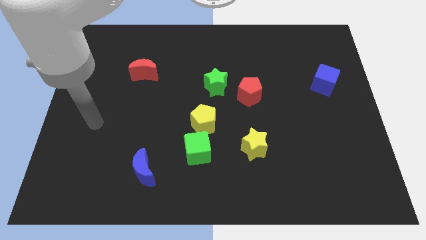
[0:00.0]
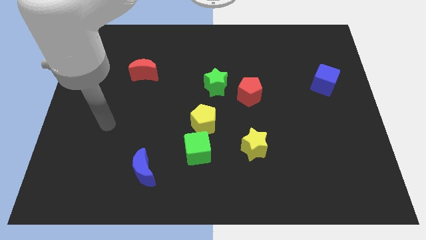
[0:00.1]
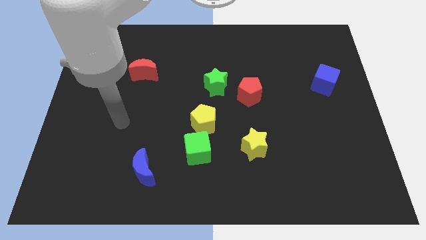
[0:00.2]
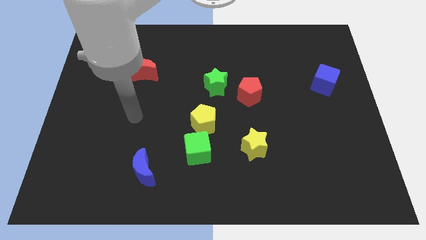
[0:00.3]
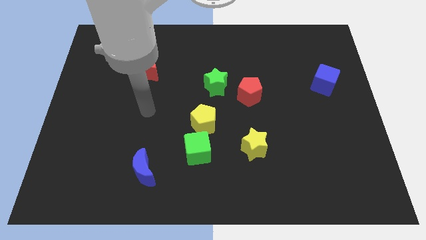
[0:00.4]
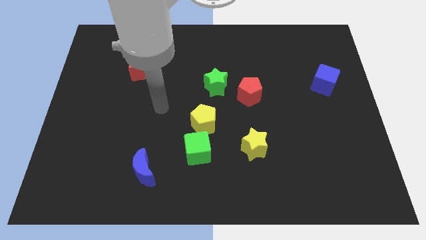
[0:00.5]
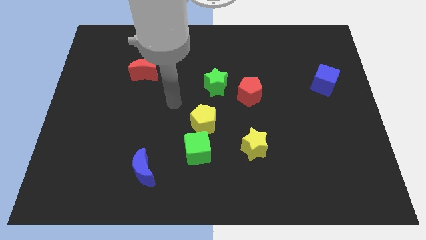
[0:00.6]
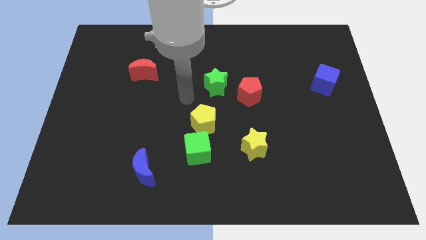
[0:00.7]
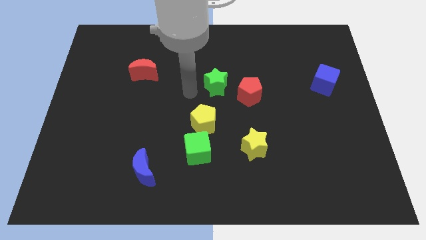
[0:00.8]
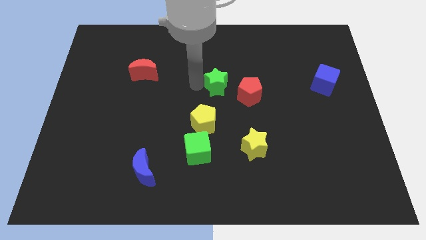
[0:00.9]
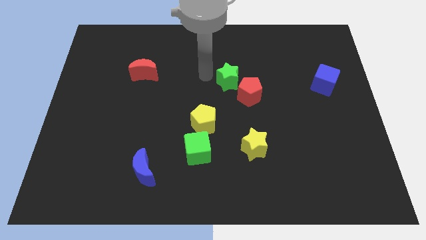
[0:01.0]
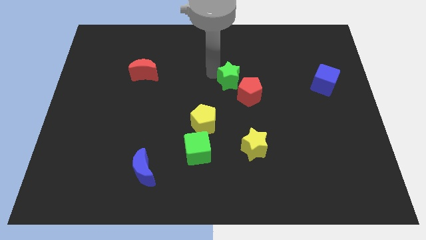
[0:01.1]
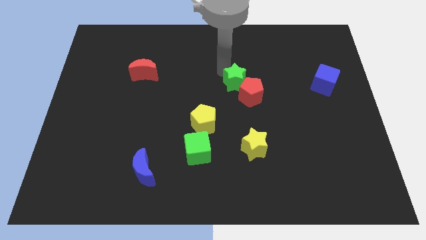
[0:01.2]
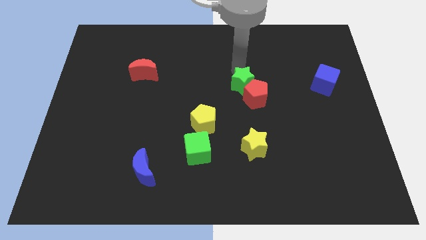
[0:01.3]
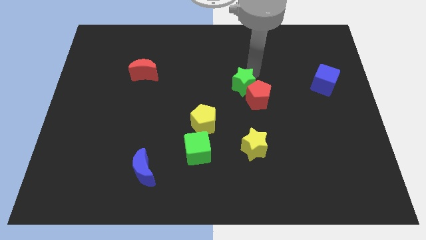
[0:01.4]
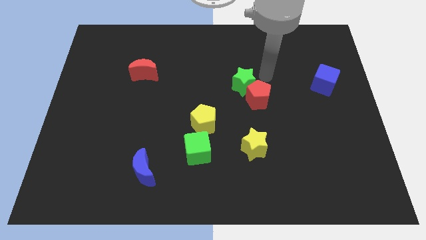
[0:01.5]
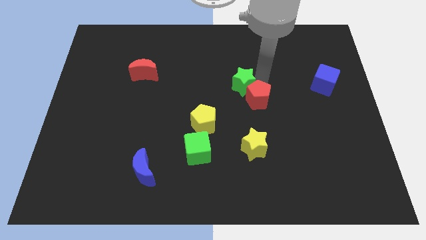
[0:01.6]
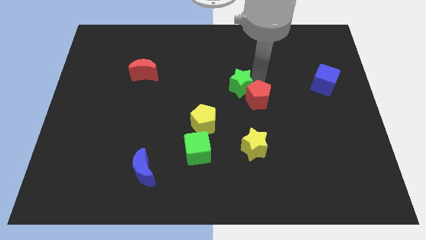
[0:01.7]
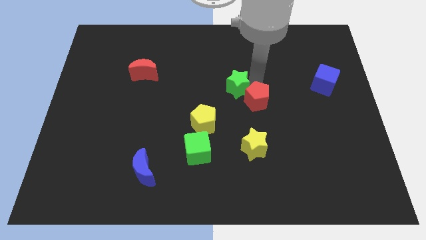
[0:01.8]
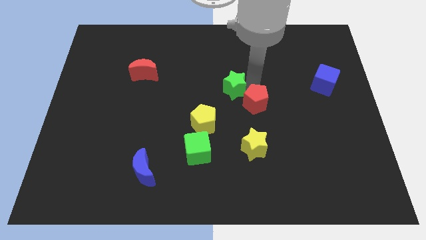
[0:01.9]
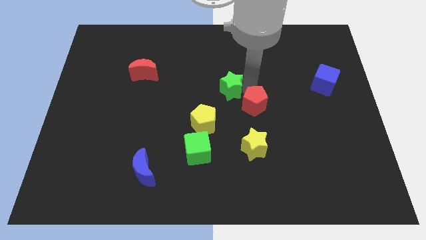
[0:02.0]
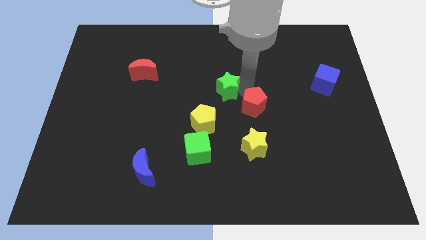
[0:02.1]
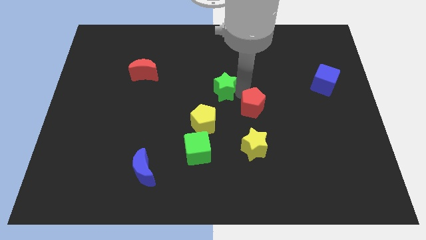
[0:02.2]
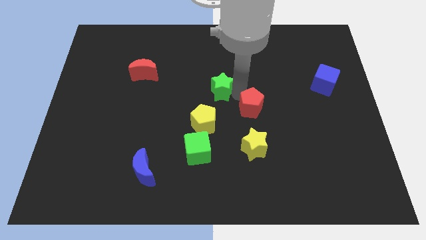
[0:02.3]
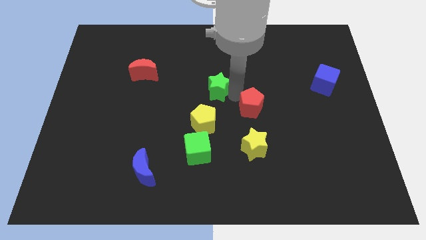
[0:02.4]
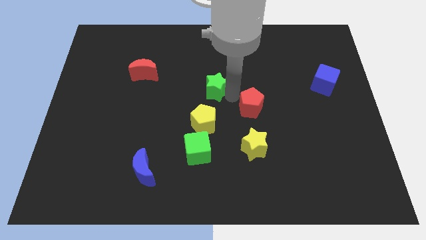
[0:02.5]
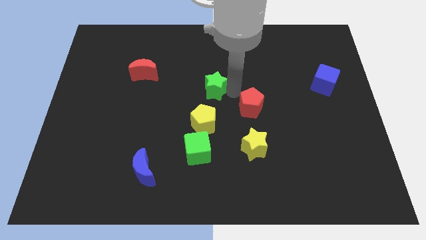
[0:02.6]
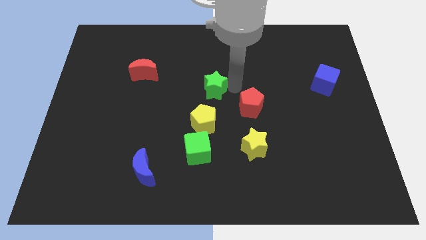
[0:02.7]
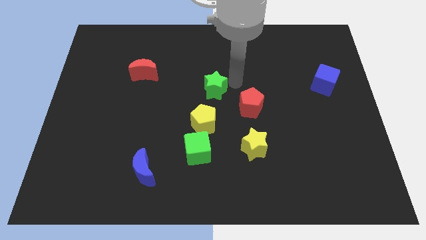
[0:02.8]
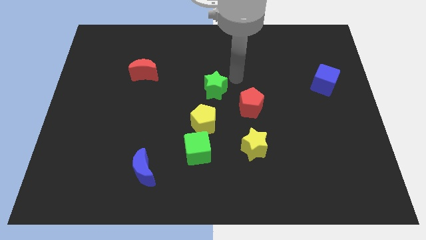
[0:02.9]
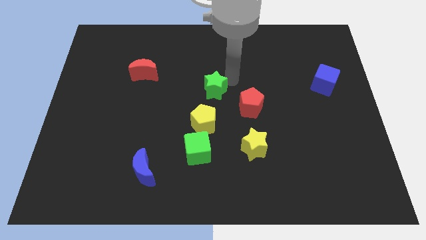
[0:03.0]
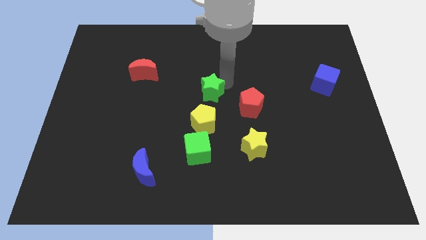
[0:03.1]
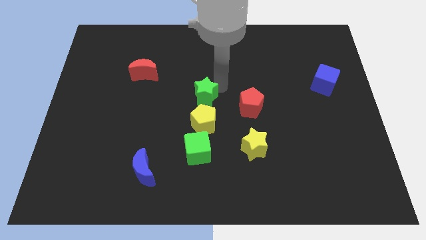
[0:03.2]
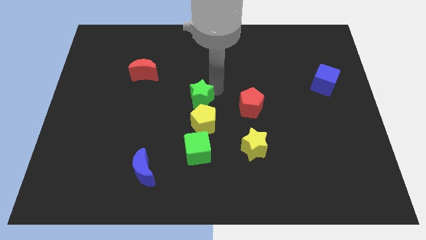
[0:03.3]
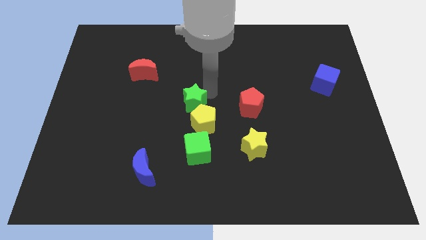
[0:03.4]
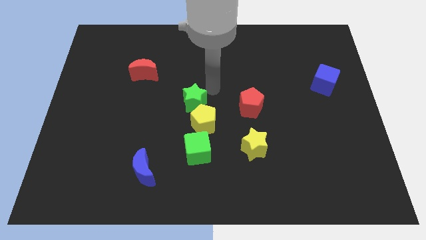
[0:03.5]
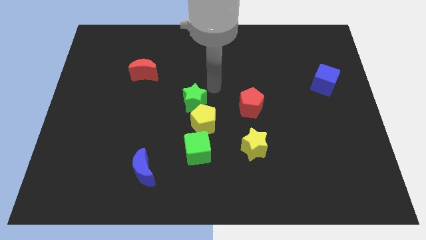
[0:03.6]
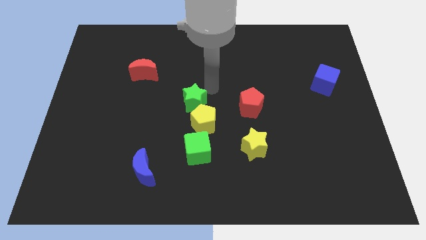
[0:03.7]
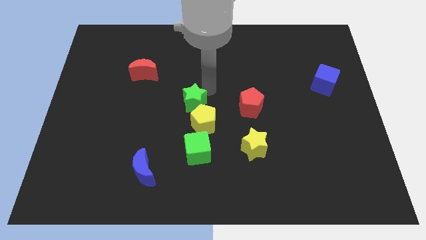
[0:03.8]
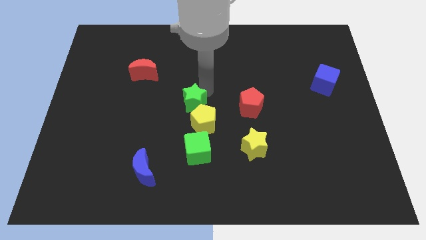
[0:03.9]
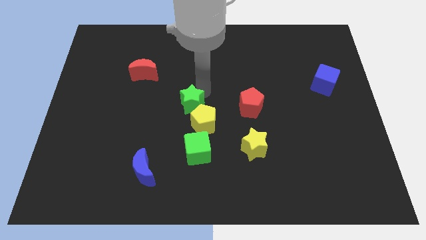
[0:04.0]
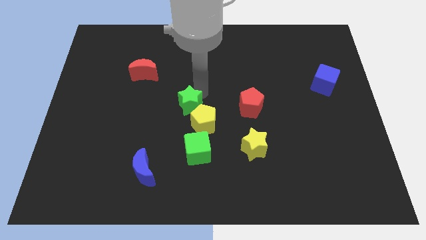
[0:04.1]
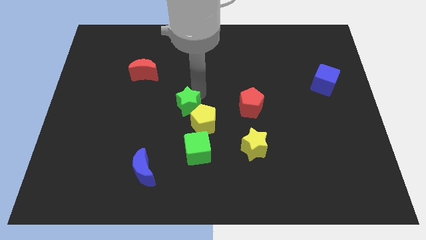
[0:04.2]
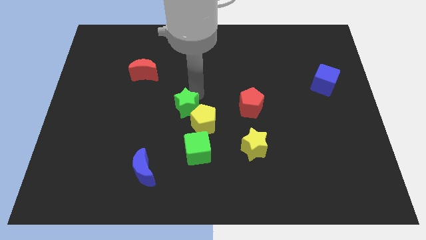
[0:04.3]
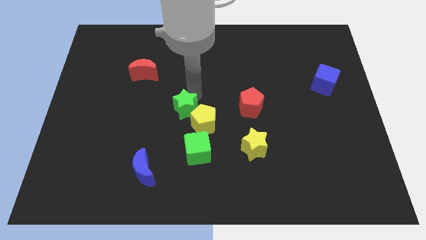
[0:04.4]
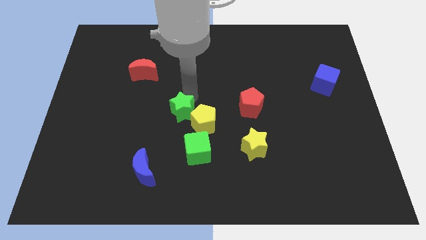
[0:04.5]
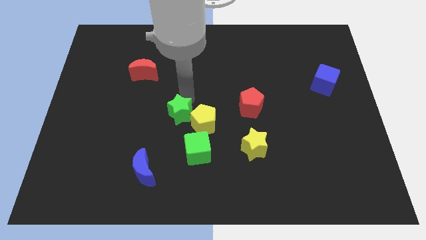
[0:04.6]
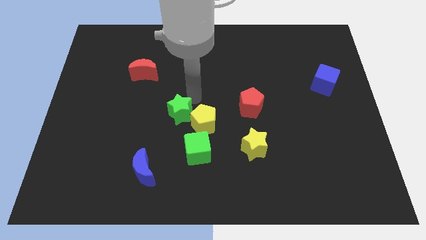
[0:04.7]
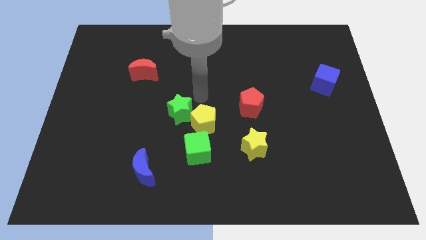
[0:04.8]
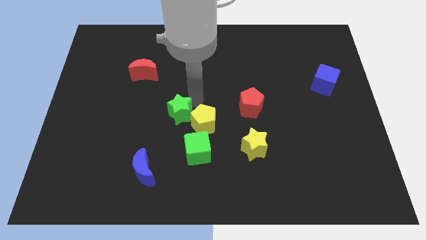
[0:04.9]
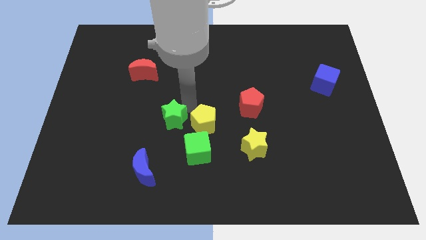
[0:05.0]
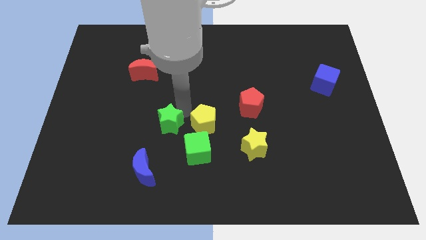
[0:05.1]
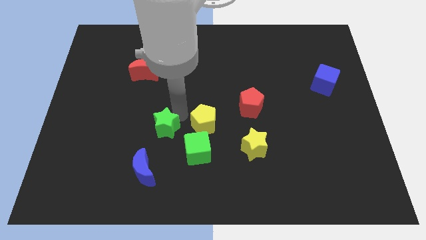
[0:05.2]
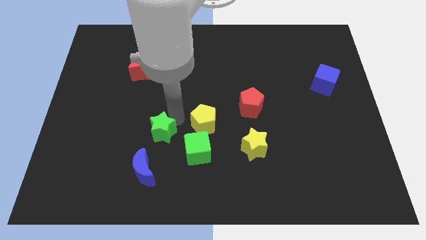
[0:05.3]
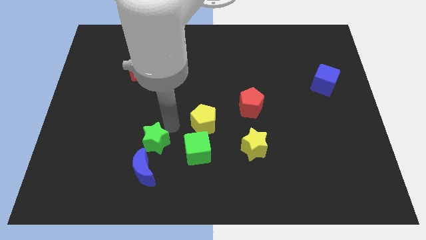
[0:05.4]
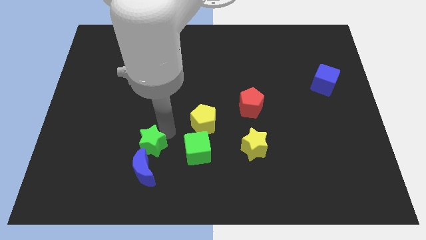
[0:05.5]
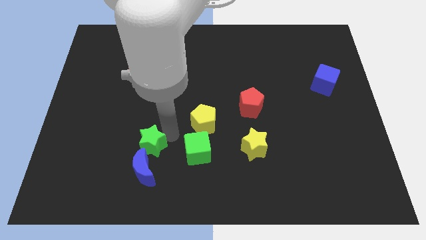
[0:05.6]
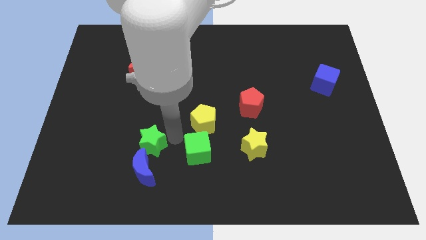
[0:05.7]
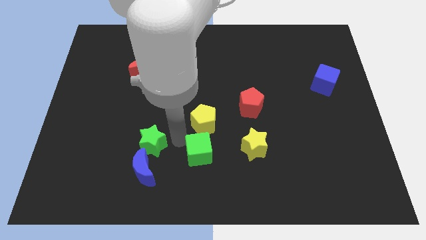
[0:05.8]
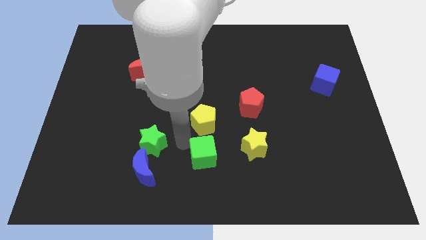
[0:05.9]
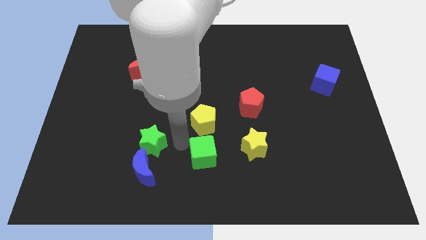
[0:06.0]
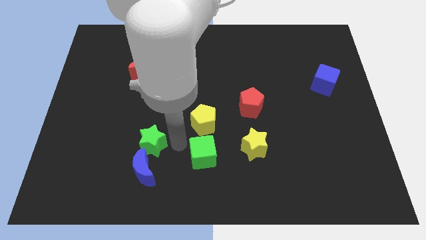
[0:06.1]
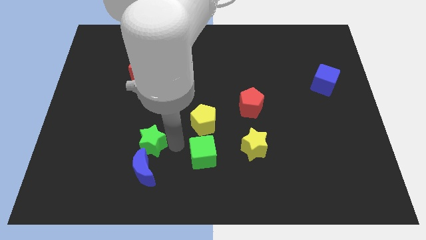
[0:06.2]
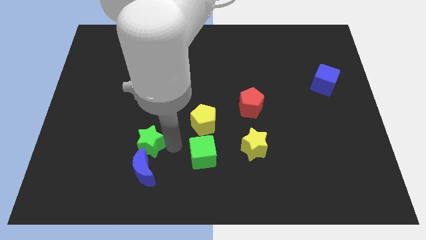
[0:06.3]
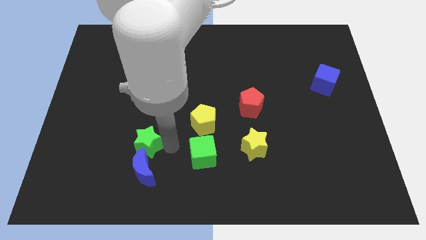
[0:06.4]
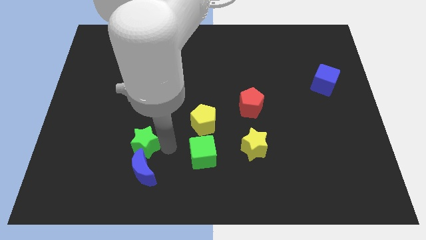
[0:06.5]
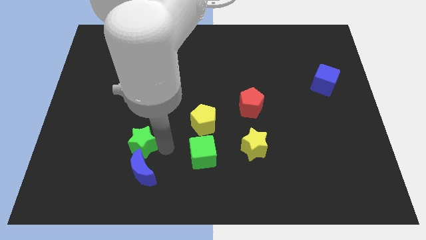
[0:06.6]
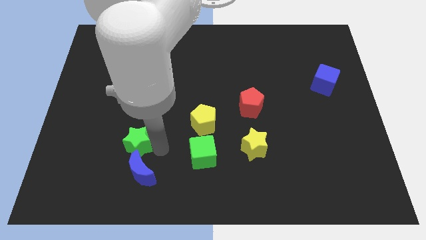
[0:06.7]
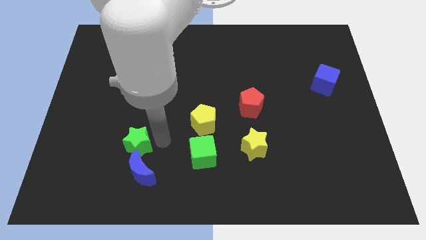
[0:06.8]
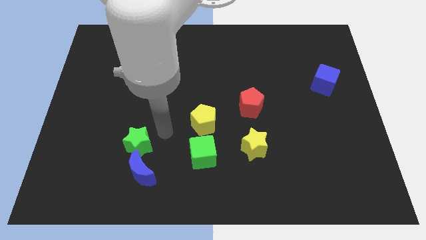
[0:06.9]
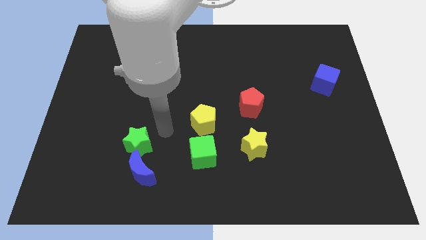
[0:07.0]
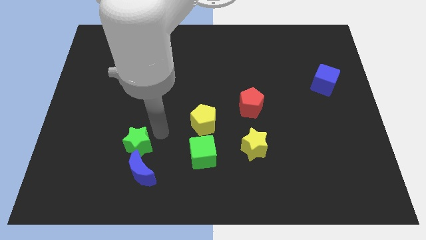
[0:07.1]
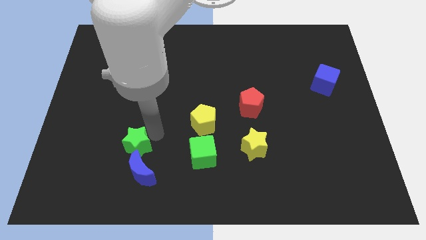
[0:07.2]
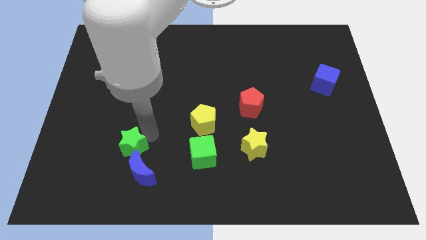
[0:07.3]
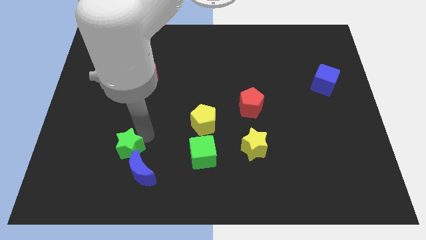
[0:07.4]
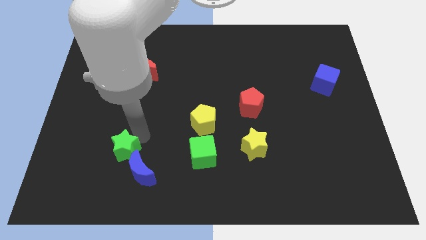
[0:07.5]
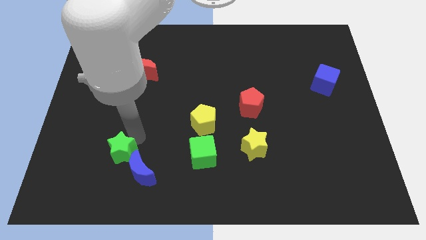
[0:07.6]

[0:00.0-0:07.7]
slide the green star left of the blue moon
